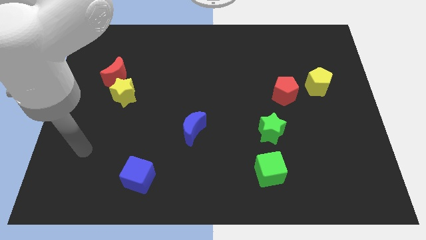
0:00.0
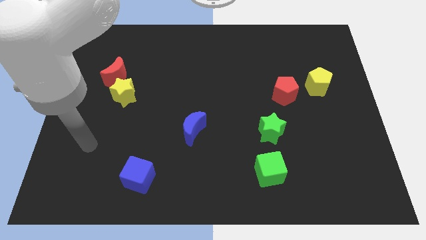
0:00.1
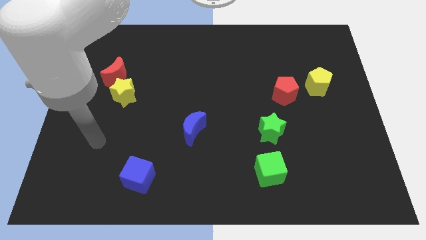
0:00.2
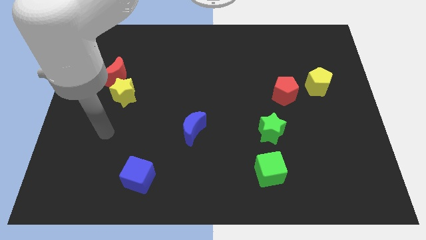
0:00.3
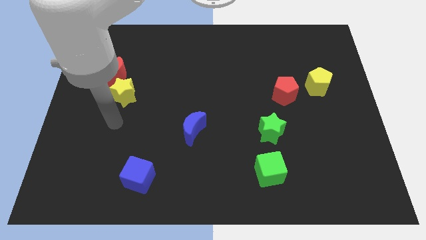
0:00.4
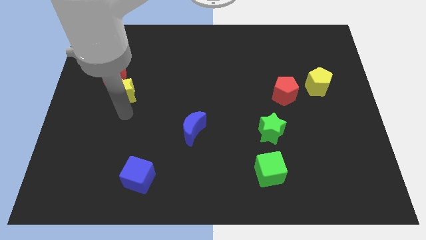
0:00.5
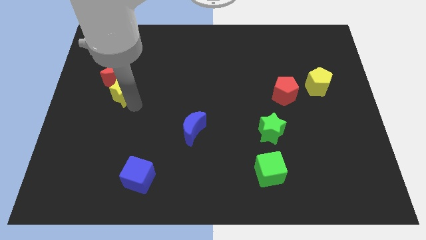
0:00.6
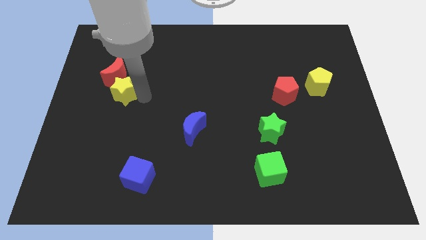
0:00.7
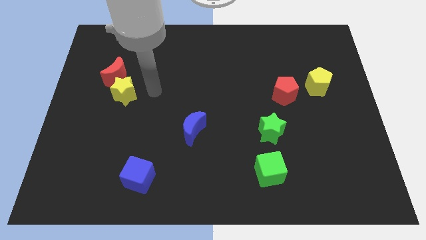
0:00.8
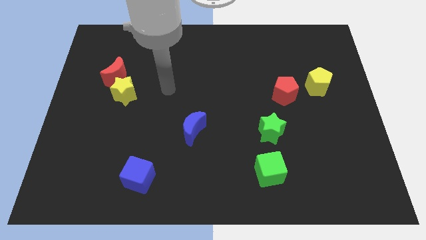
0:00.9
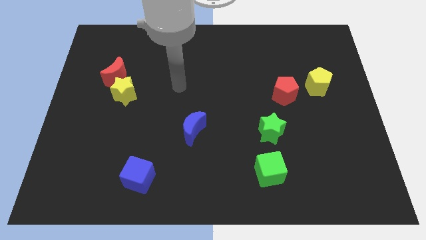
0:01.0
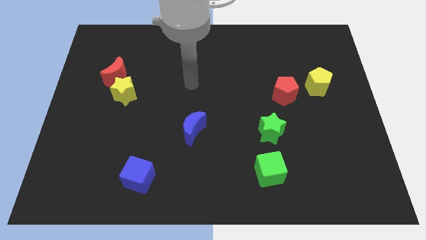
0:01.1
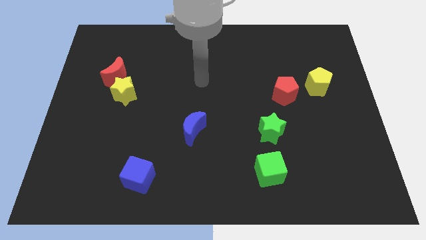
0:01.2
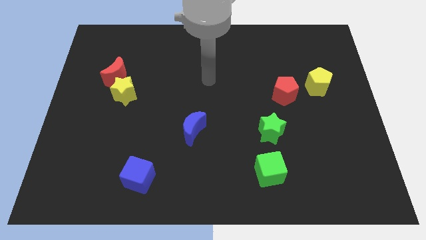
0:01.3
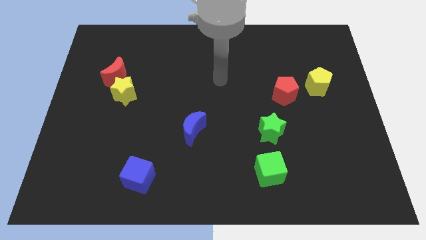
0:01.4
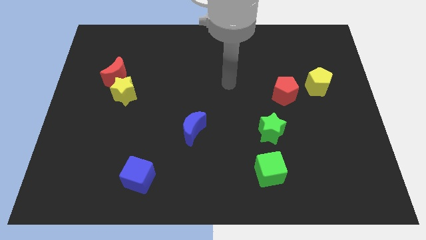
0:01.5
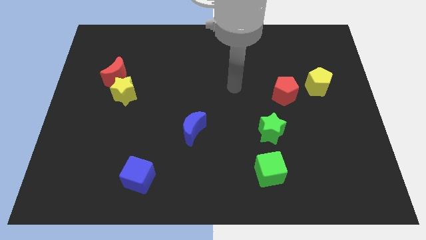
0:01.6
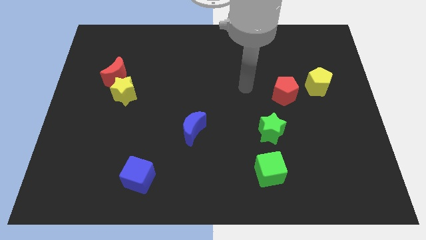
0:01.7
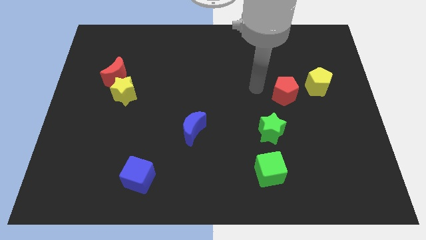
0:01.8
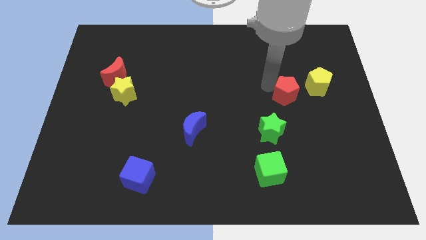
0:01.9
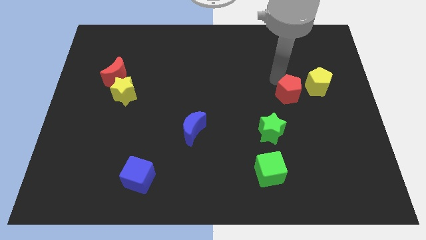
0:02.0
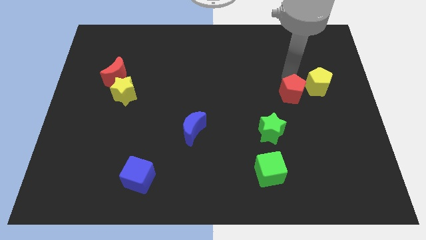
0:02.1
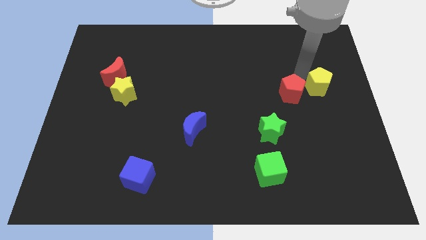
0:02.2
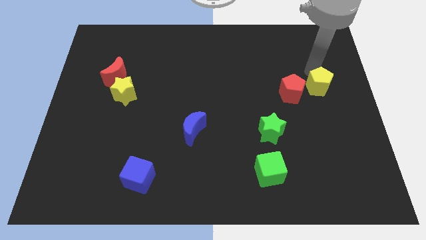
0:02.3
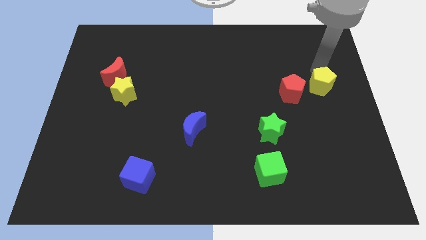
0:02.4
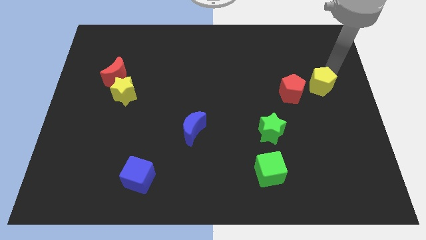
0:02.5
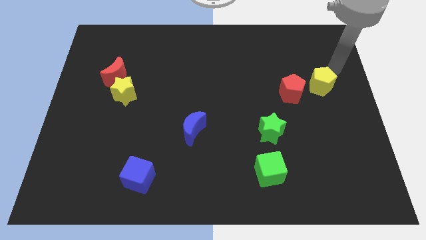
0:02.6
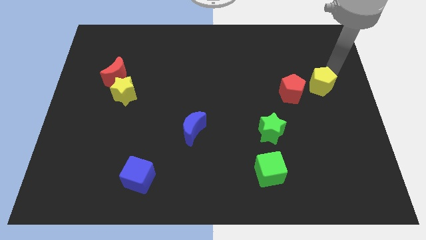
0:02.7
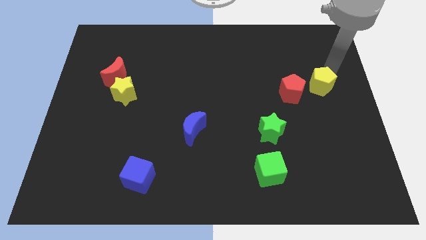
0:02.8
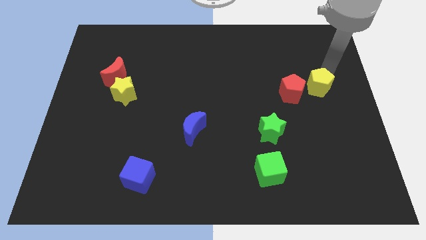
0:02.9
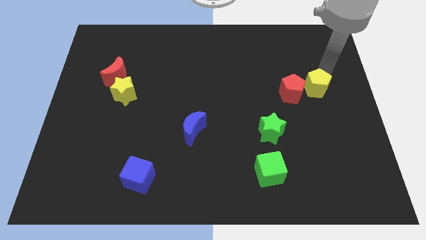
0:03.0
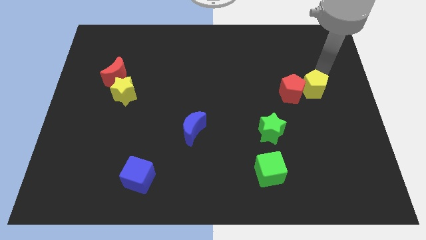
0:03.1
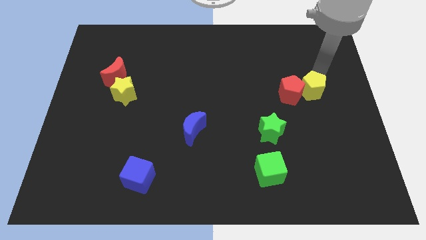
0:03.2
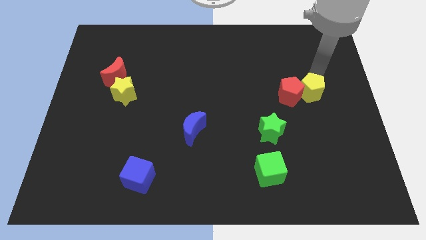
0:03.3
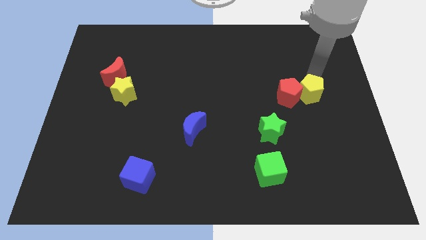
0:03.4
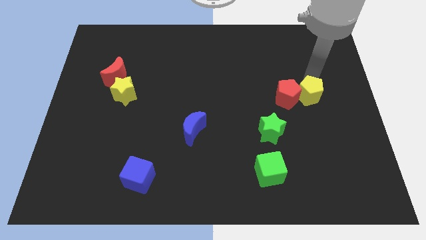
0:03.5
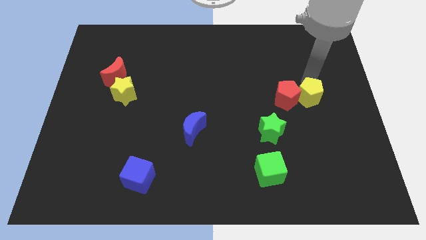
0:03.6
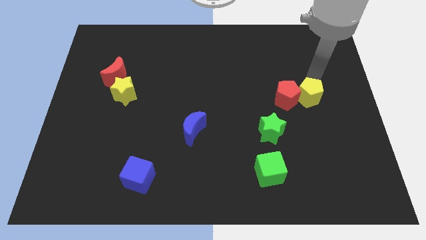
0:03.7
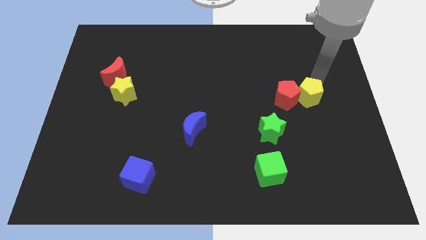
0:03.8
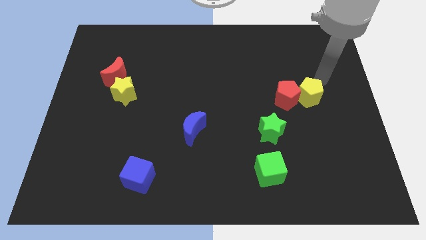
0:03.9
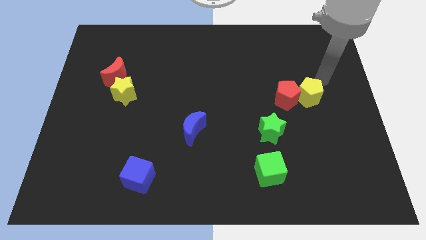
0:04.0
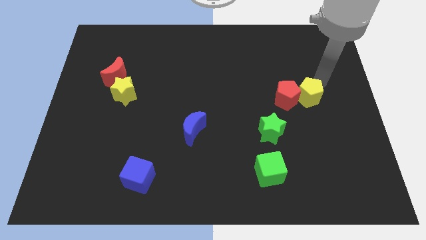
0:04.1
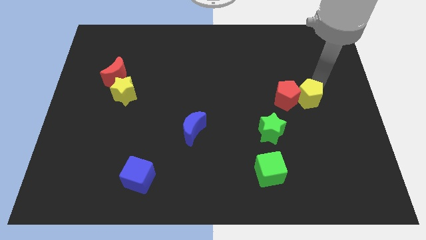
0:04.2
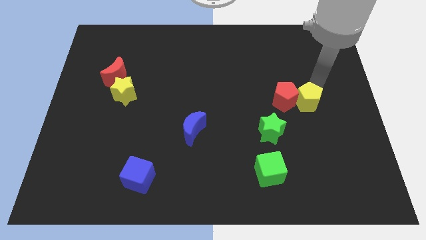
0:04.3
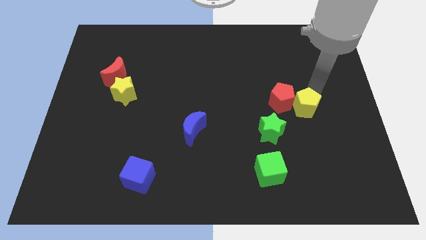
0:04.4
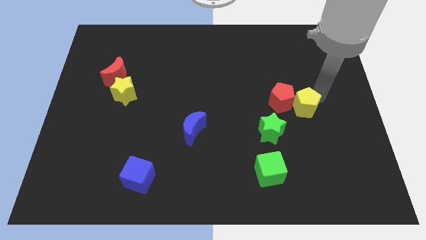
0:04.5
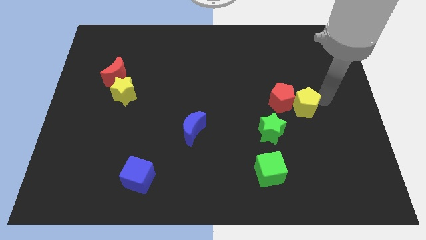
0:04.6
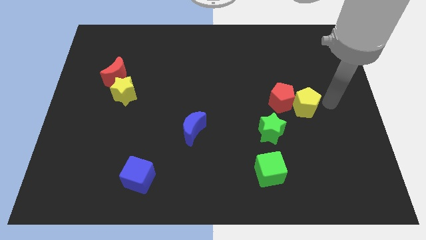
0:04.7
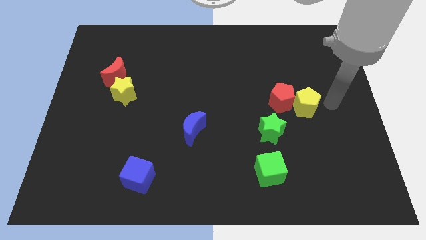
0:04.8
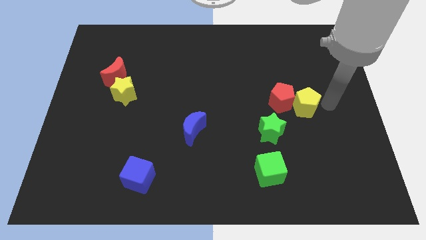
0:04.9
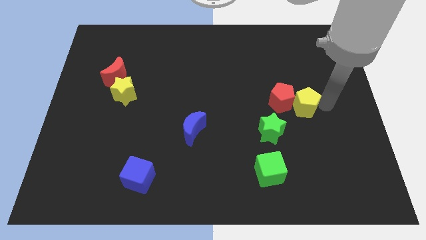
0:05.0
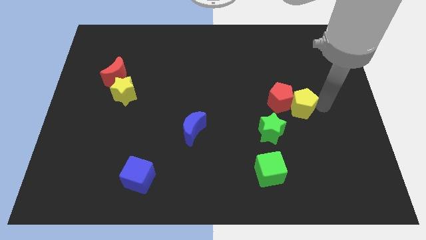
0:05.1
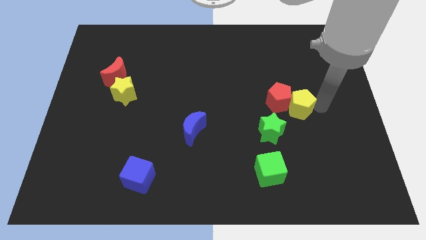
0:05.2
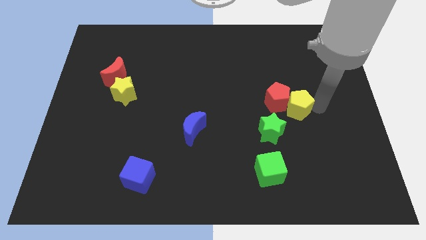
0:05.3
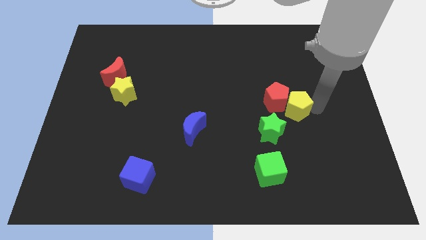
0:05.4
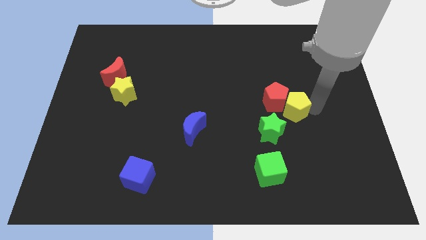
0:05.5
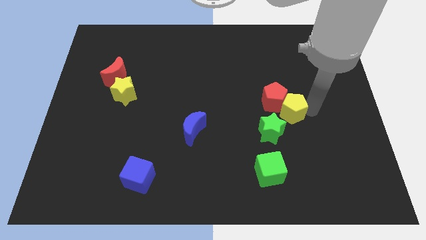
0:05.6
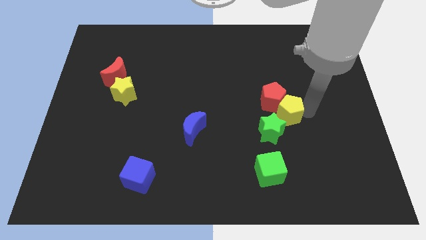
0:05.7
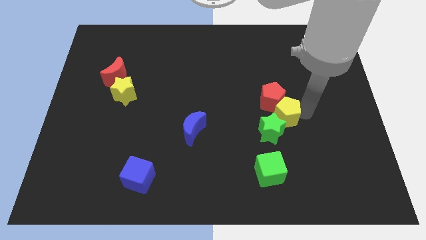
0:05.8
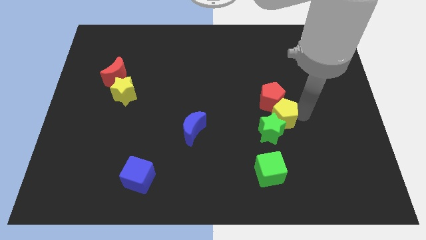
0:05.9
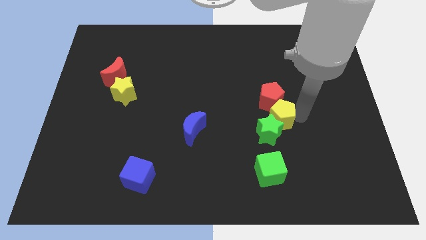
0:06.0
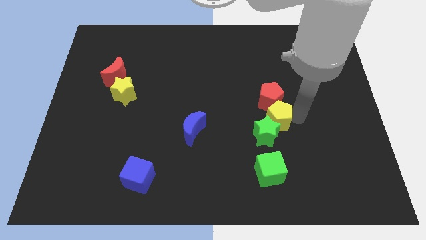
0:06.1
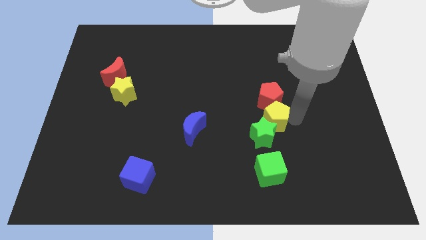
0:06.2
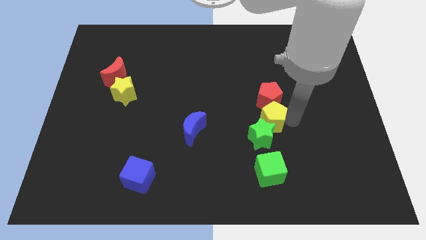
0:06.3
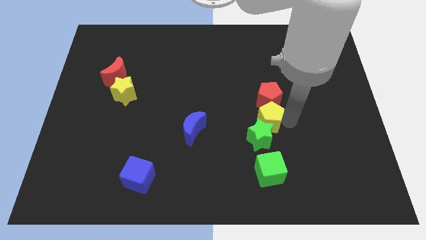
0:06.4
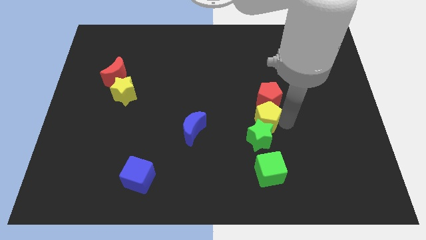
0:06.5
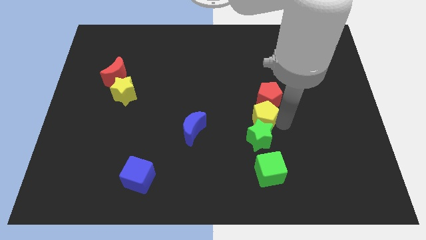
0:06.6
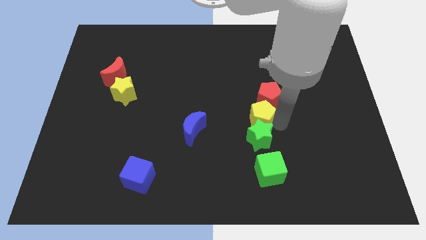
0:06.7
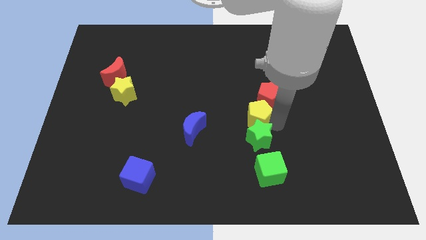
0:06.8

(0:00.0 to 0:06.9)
put the yellow pentagon to the right side of the blue moon
